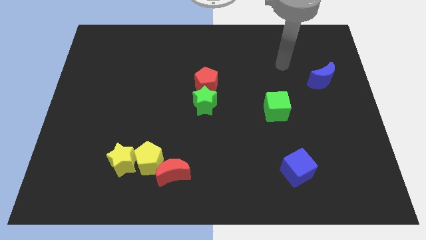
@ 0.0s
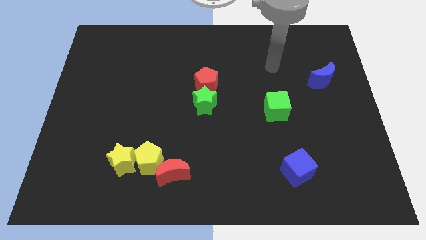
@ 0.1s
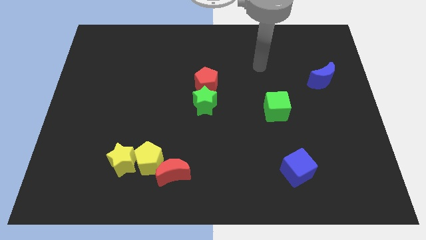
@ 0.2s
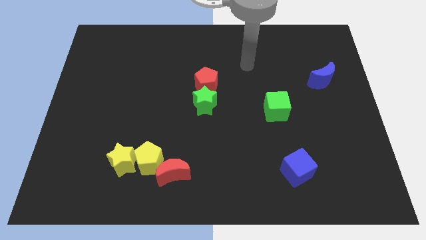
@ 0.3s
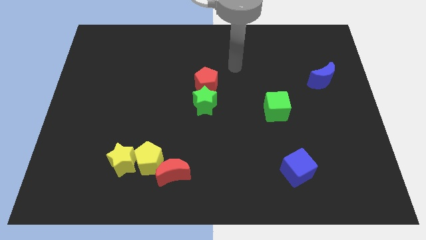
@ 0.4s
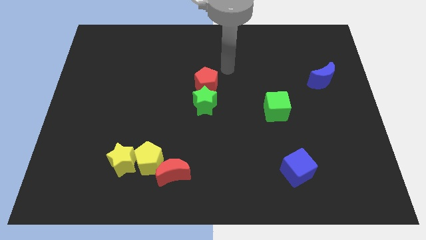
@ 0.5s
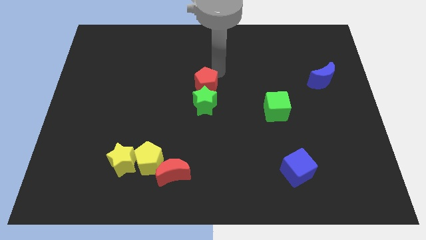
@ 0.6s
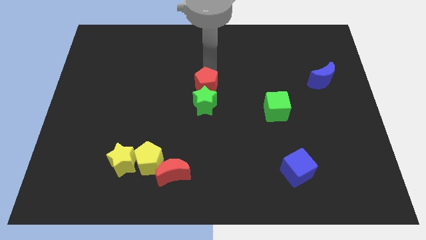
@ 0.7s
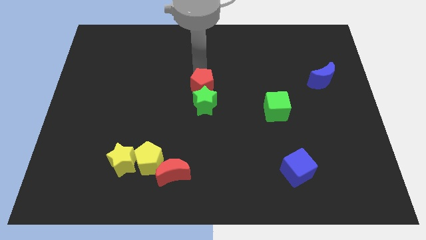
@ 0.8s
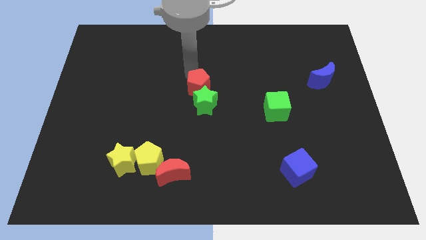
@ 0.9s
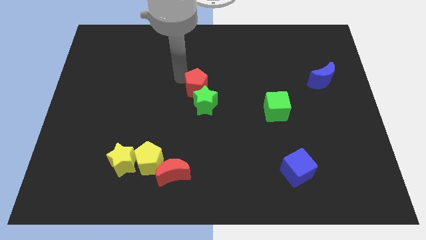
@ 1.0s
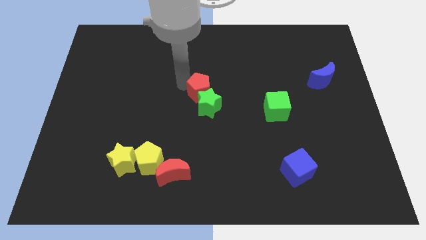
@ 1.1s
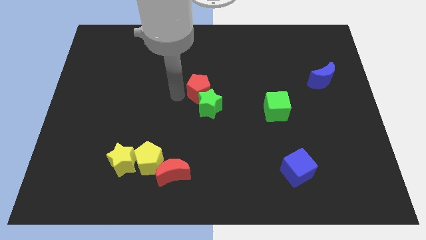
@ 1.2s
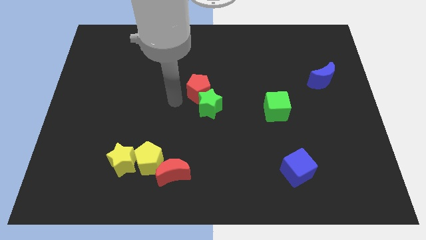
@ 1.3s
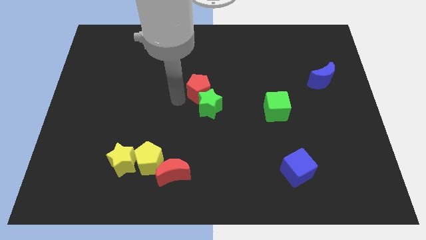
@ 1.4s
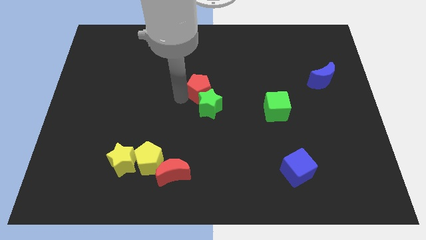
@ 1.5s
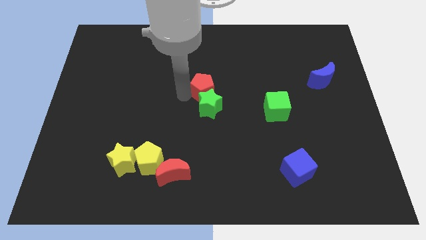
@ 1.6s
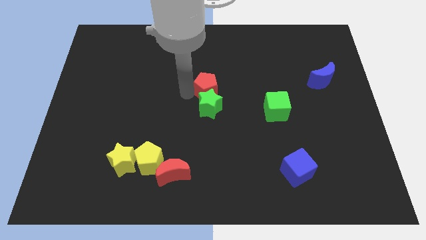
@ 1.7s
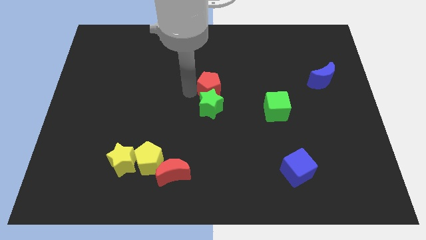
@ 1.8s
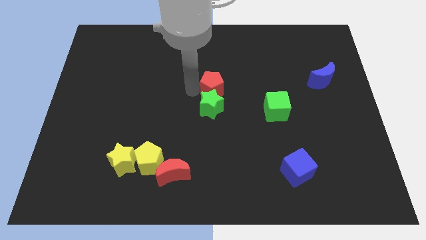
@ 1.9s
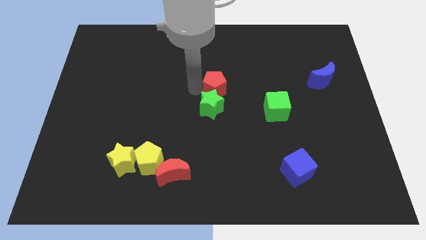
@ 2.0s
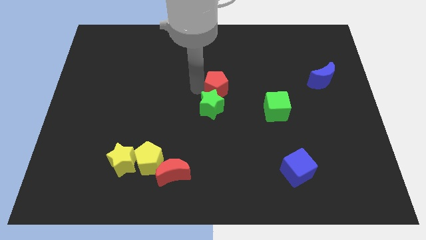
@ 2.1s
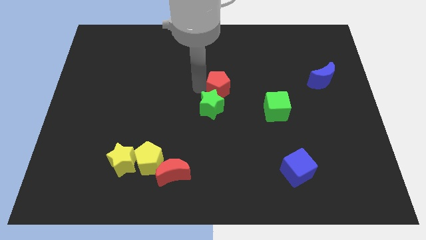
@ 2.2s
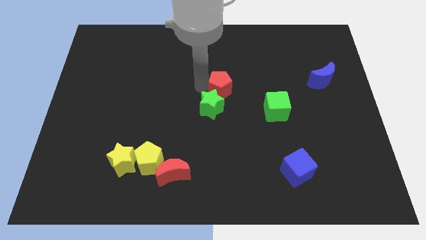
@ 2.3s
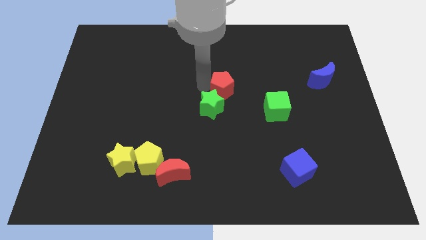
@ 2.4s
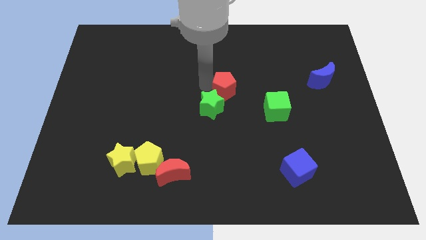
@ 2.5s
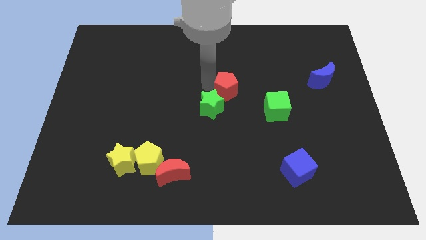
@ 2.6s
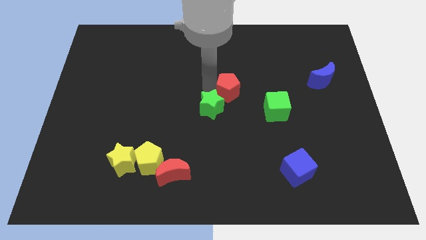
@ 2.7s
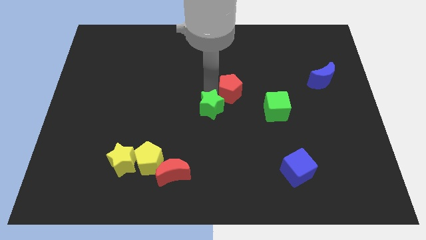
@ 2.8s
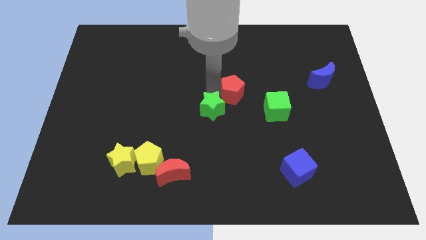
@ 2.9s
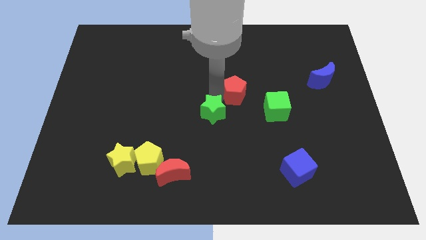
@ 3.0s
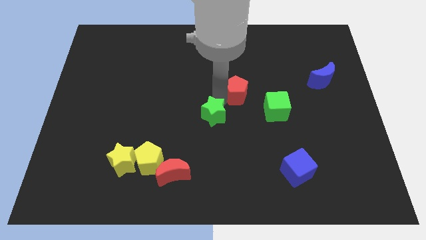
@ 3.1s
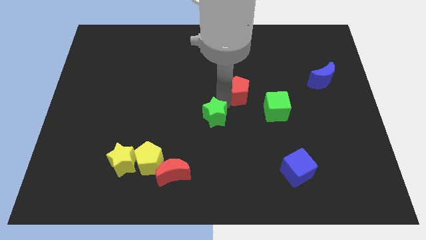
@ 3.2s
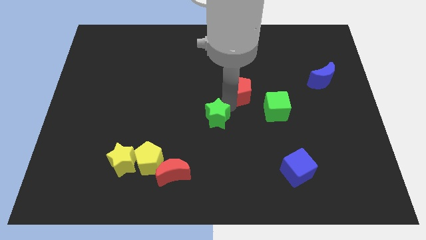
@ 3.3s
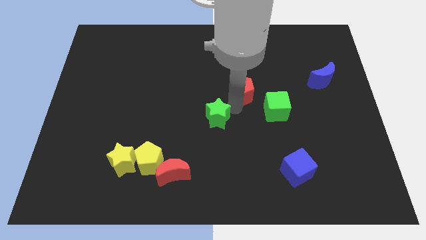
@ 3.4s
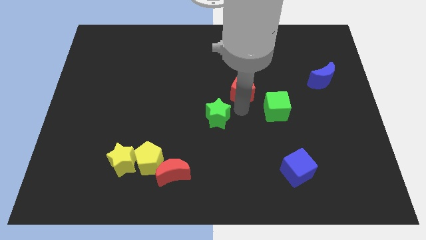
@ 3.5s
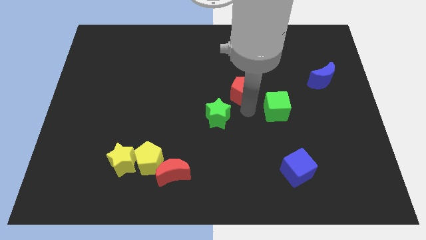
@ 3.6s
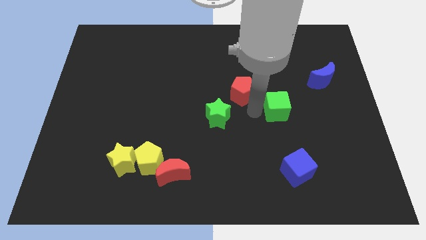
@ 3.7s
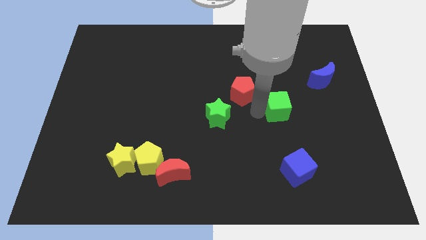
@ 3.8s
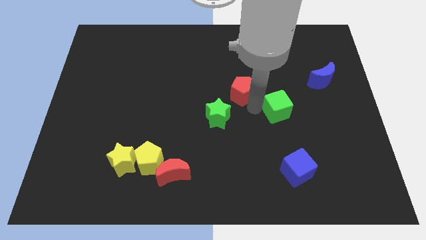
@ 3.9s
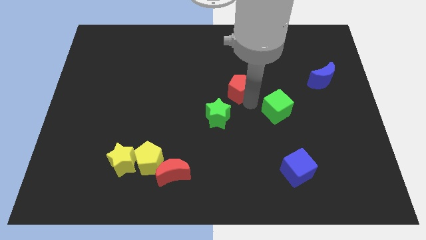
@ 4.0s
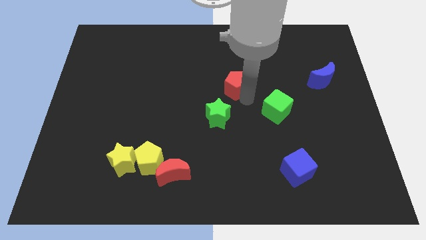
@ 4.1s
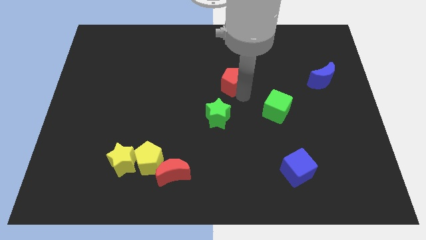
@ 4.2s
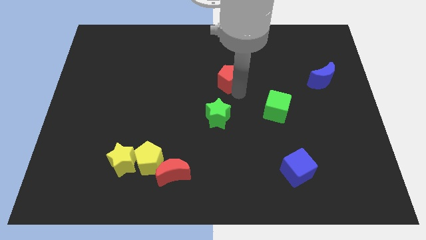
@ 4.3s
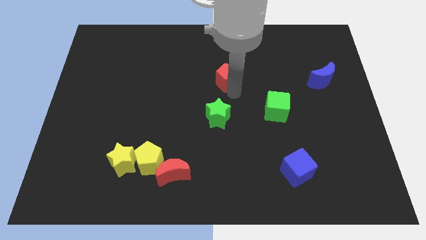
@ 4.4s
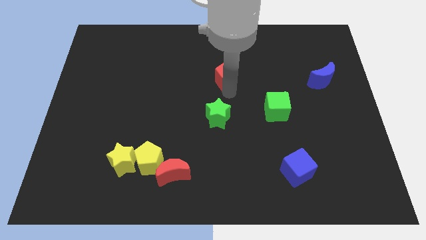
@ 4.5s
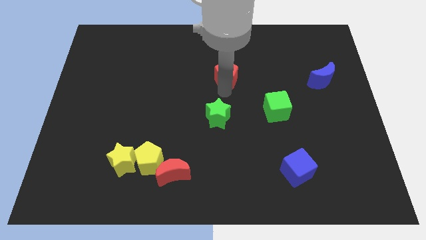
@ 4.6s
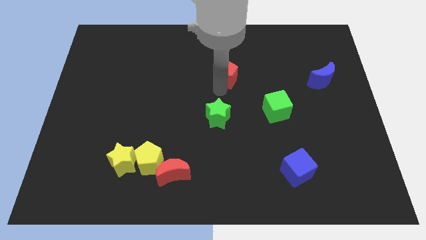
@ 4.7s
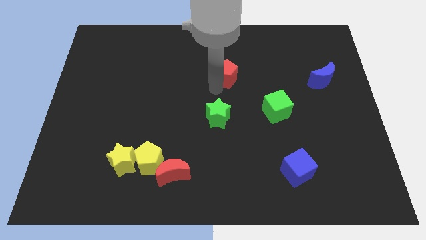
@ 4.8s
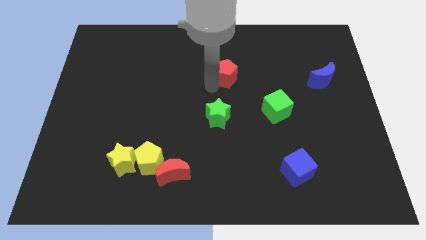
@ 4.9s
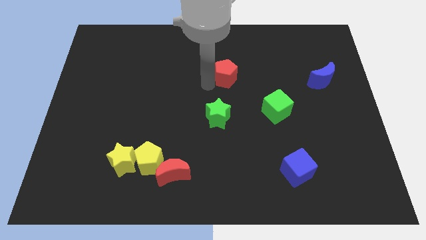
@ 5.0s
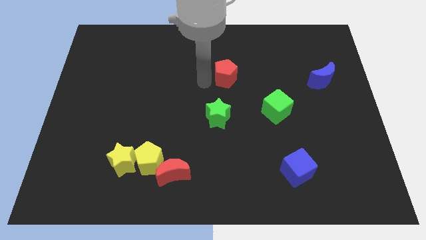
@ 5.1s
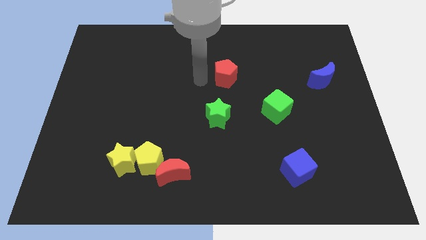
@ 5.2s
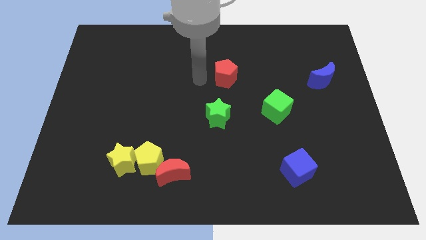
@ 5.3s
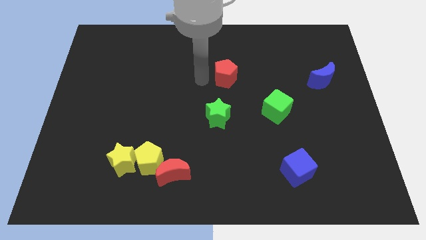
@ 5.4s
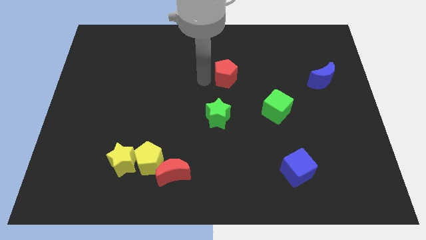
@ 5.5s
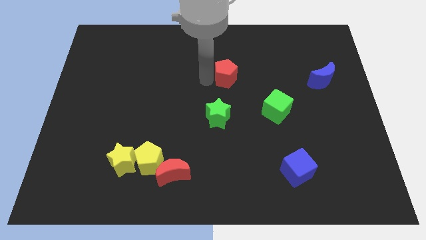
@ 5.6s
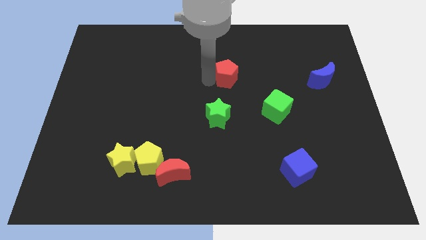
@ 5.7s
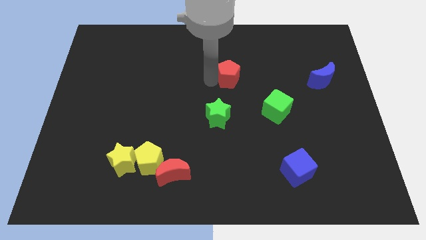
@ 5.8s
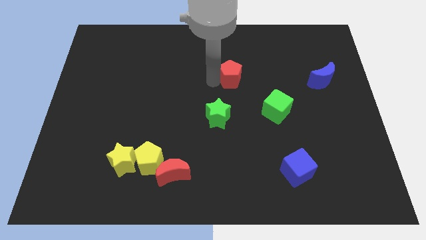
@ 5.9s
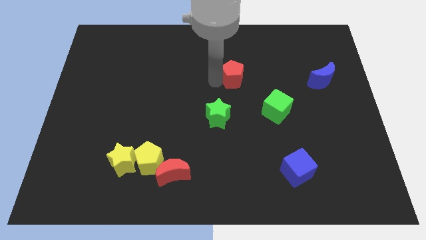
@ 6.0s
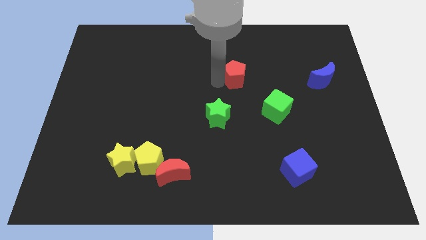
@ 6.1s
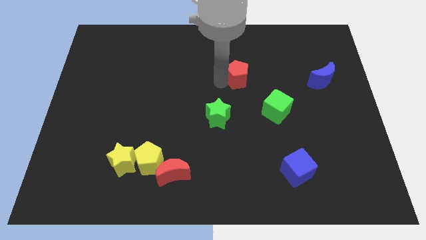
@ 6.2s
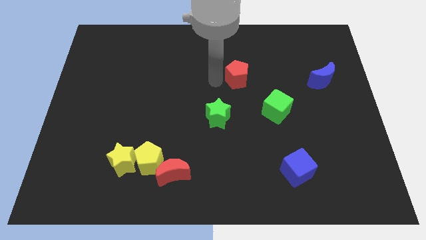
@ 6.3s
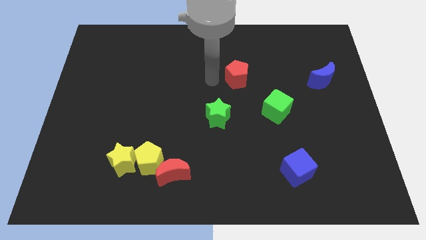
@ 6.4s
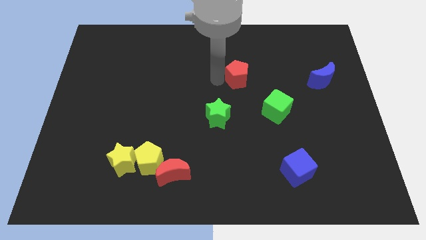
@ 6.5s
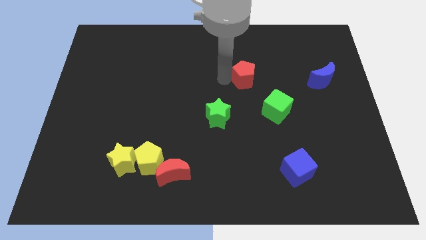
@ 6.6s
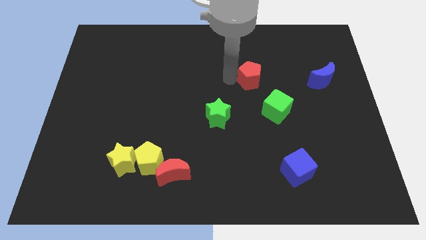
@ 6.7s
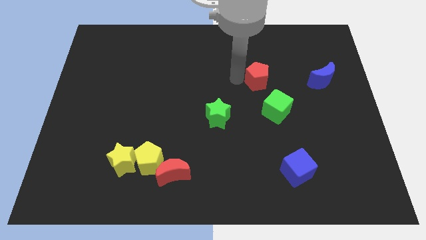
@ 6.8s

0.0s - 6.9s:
put the red pentagon to the left side of the blue moon
